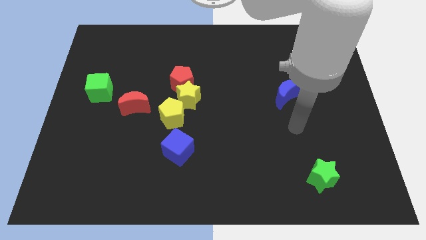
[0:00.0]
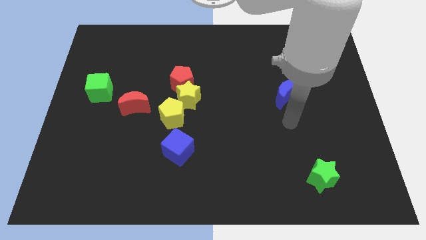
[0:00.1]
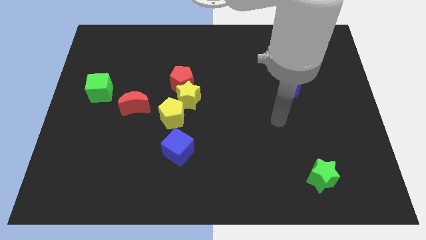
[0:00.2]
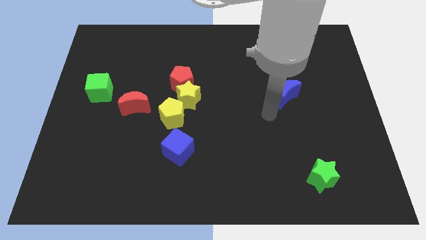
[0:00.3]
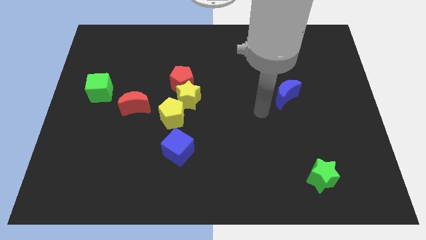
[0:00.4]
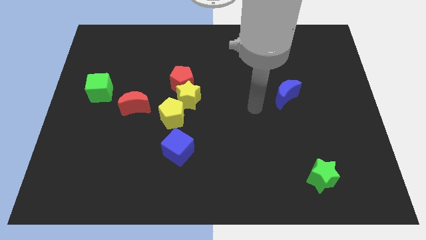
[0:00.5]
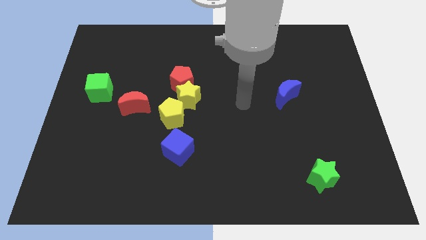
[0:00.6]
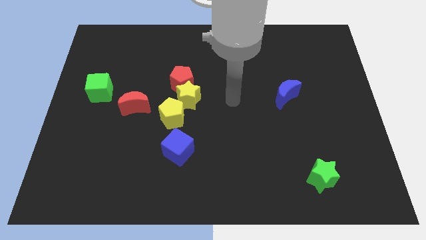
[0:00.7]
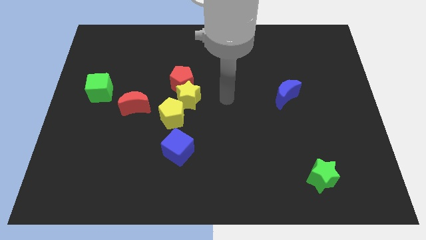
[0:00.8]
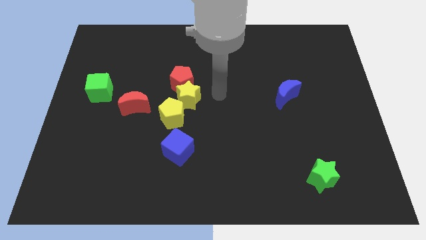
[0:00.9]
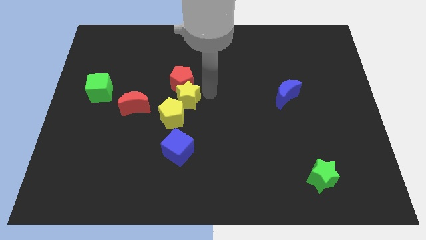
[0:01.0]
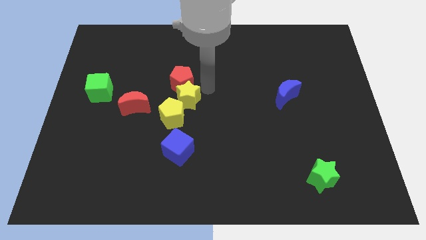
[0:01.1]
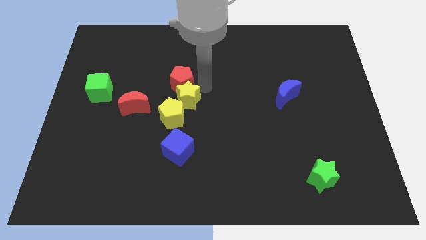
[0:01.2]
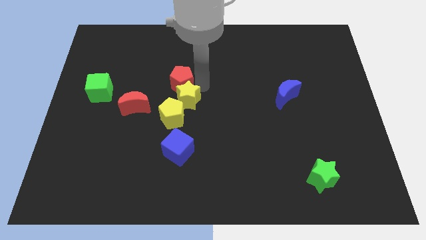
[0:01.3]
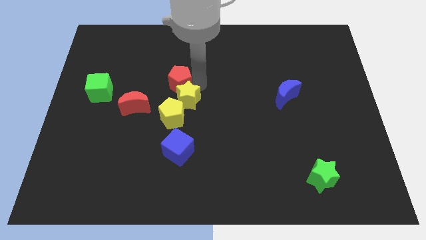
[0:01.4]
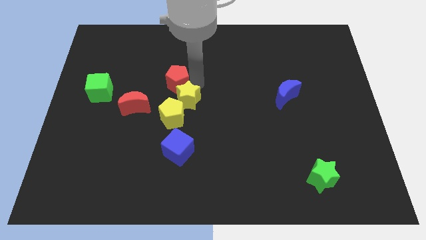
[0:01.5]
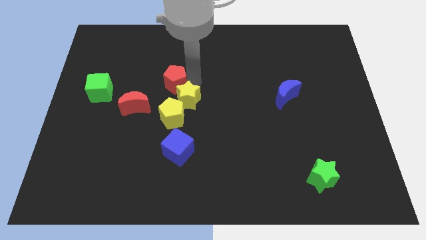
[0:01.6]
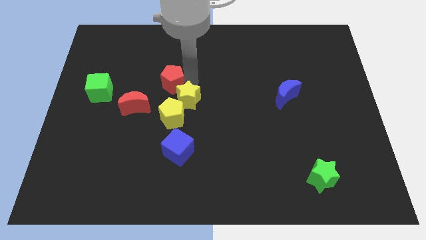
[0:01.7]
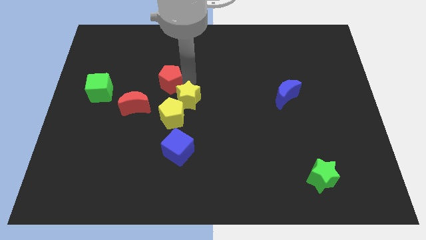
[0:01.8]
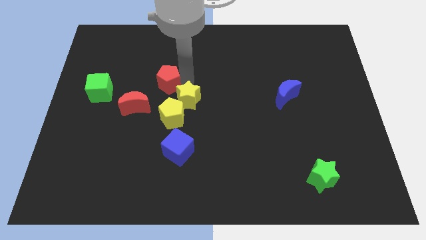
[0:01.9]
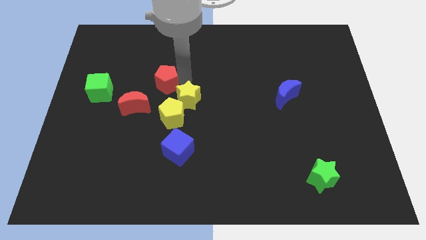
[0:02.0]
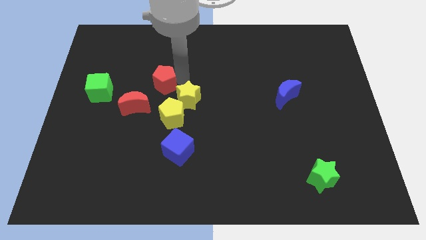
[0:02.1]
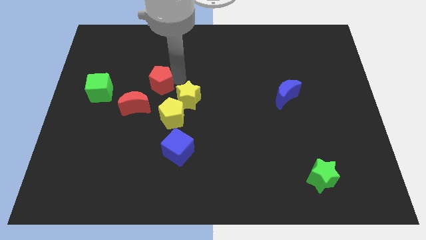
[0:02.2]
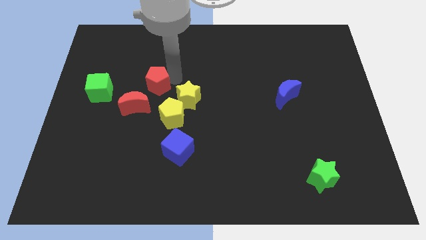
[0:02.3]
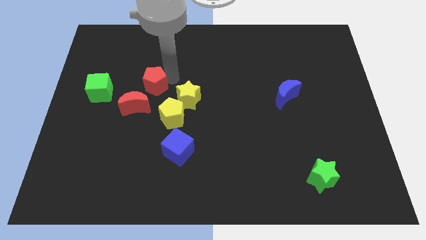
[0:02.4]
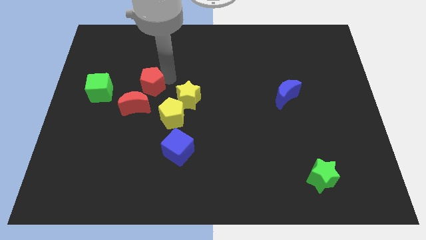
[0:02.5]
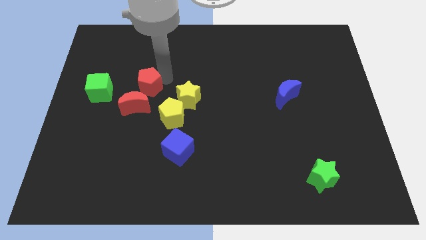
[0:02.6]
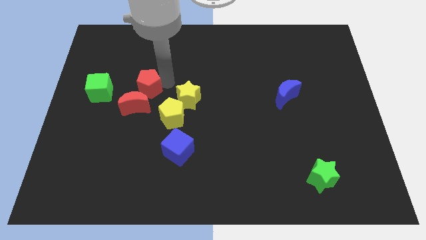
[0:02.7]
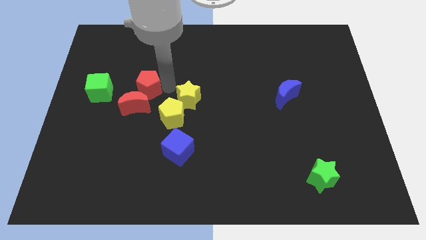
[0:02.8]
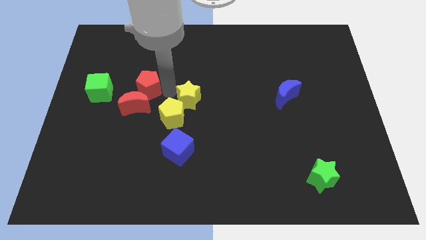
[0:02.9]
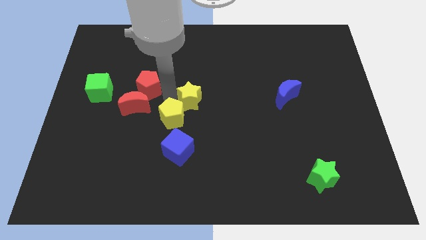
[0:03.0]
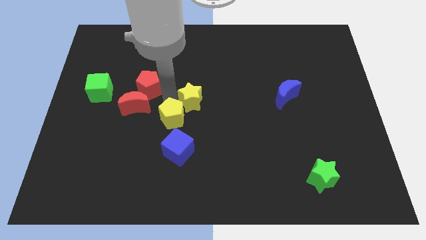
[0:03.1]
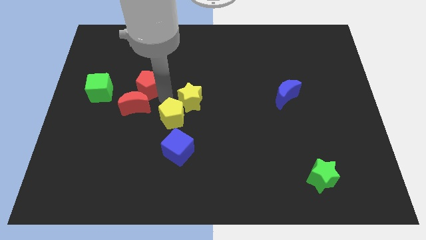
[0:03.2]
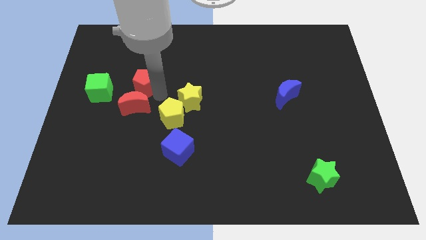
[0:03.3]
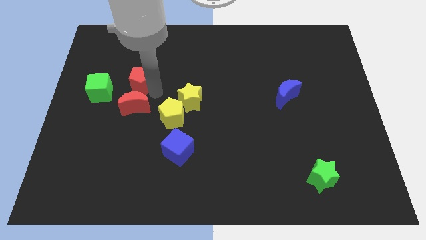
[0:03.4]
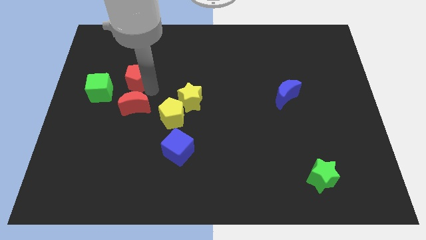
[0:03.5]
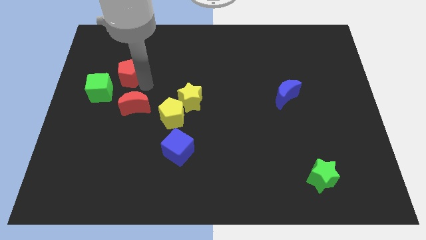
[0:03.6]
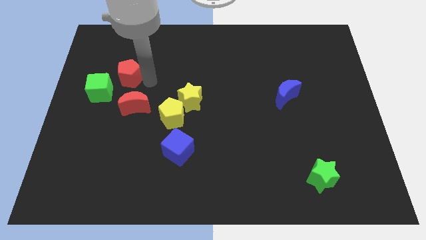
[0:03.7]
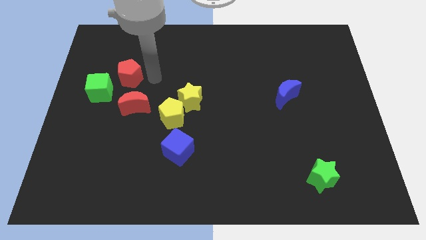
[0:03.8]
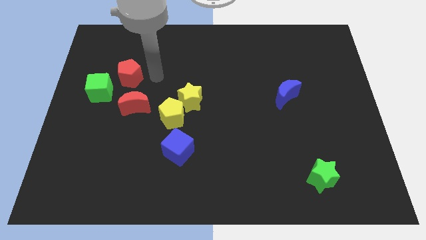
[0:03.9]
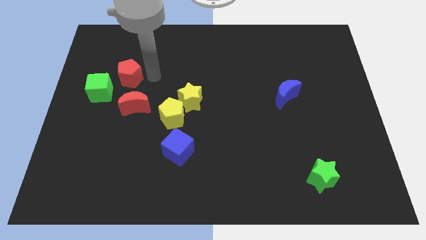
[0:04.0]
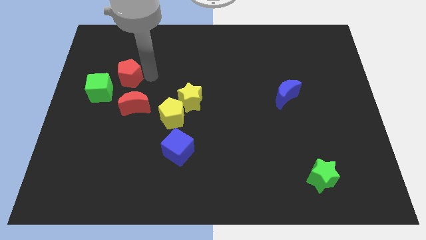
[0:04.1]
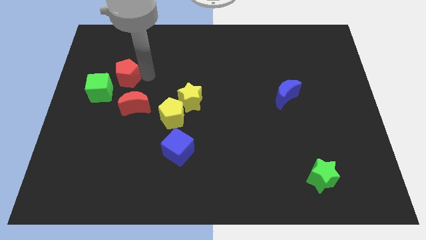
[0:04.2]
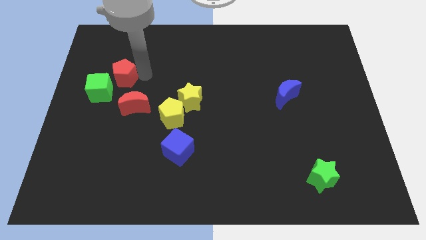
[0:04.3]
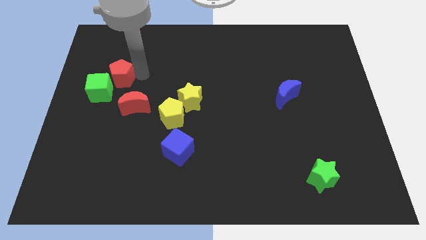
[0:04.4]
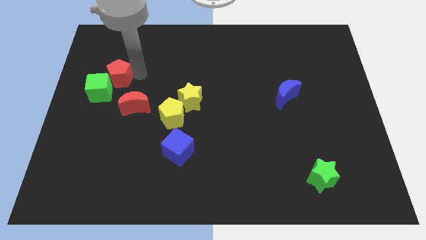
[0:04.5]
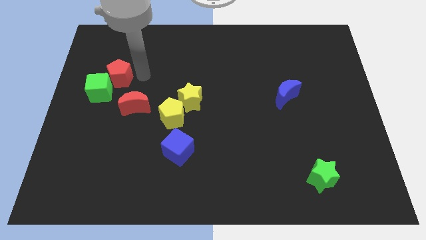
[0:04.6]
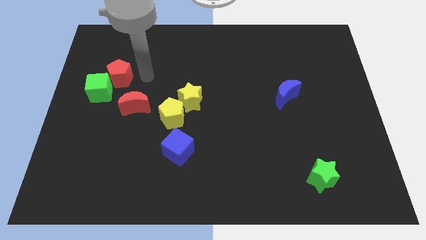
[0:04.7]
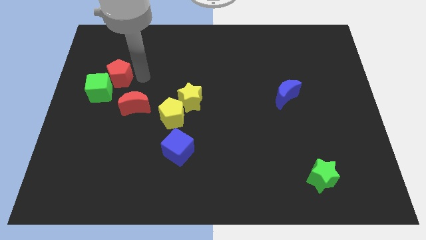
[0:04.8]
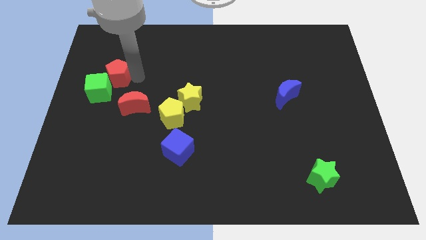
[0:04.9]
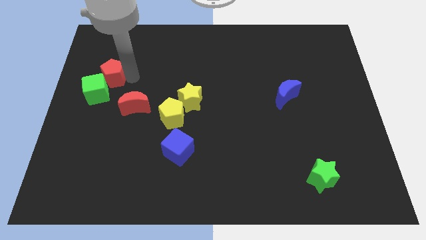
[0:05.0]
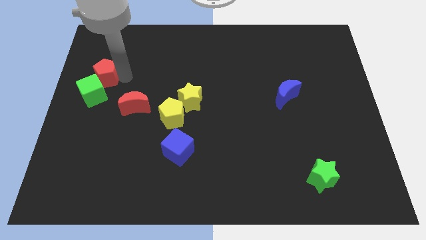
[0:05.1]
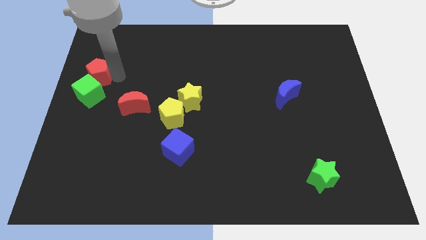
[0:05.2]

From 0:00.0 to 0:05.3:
push the red pentagon to the left side of the board

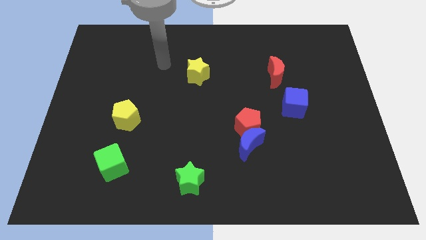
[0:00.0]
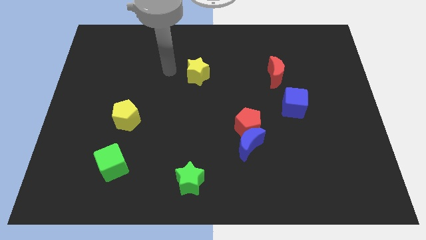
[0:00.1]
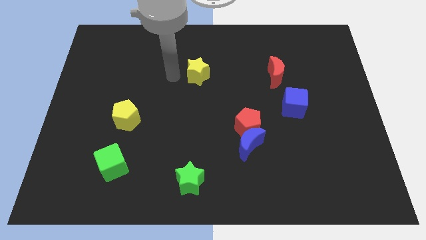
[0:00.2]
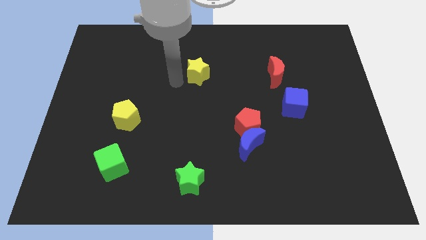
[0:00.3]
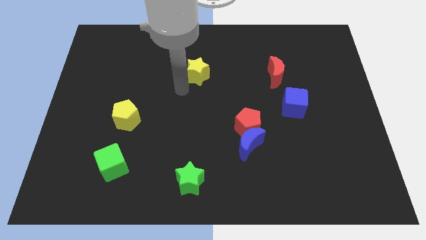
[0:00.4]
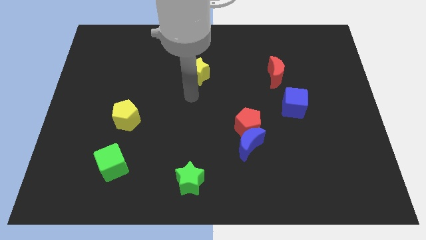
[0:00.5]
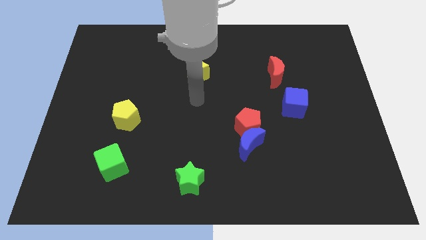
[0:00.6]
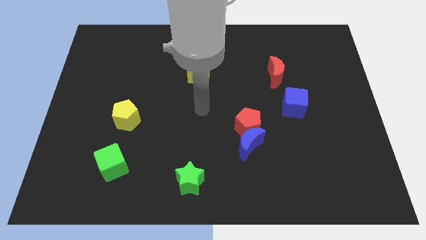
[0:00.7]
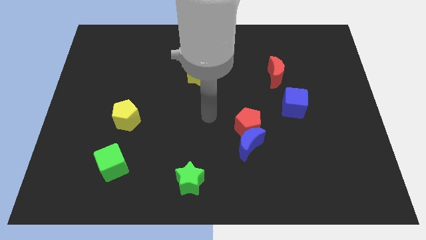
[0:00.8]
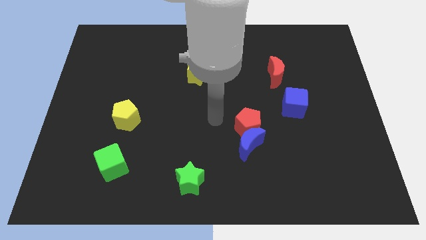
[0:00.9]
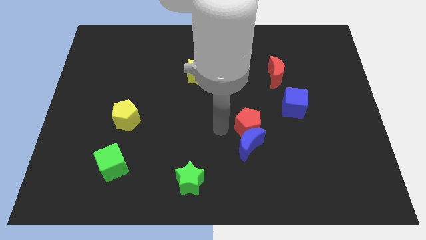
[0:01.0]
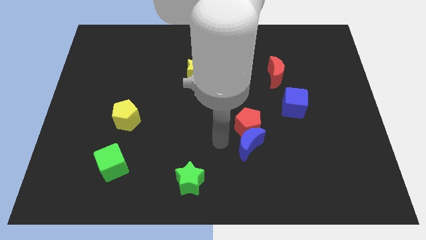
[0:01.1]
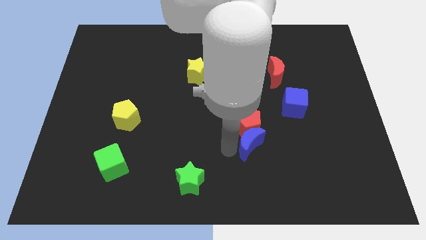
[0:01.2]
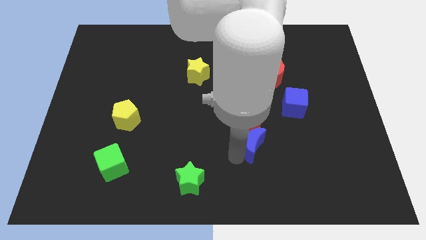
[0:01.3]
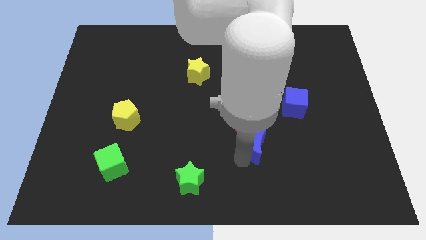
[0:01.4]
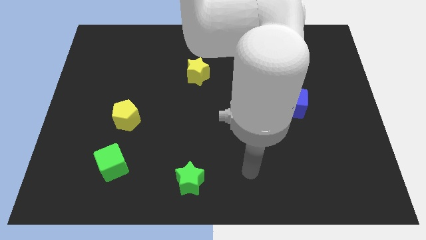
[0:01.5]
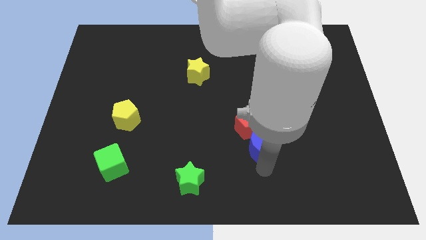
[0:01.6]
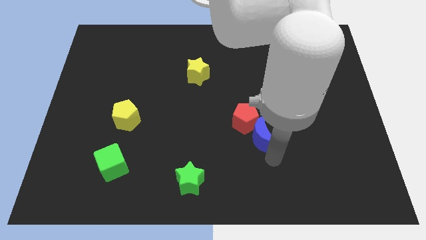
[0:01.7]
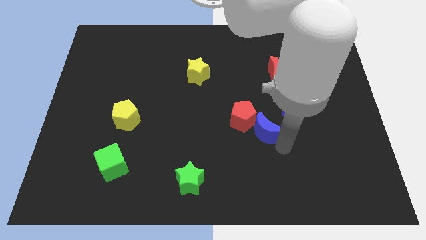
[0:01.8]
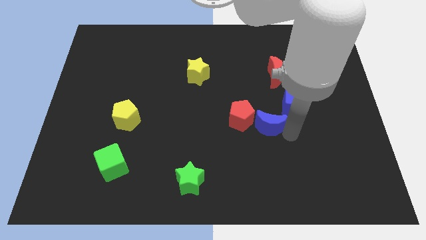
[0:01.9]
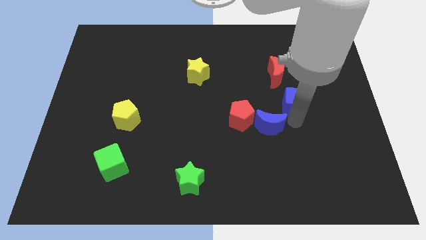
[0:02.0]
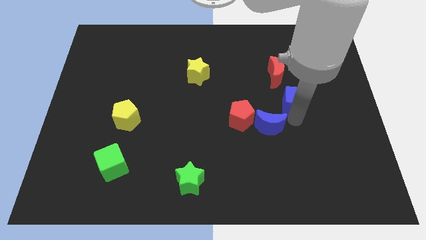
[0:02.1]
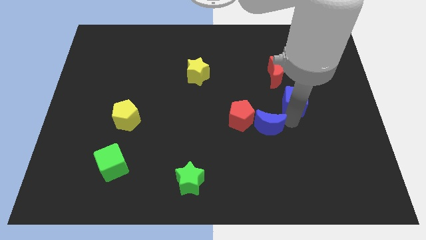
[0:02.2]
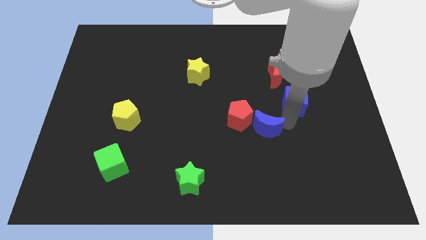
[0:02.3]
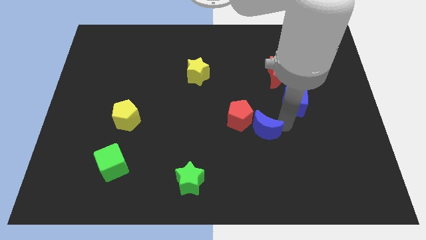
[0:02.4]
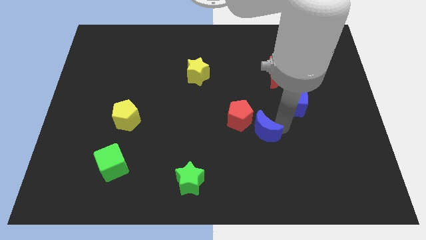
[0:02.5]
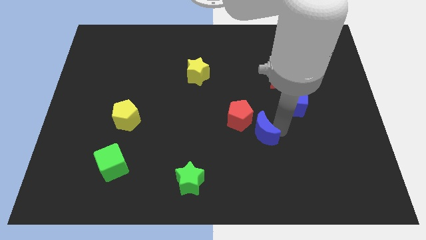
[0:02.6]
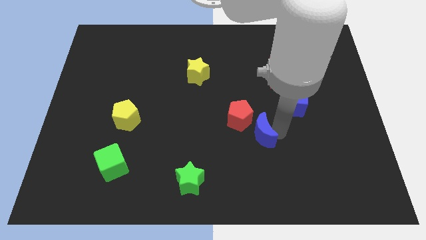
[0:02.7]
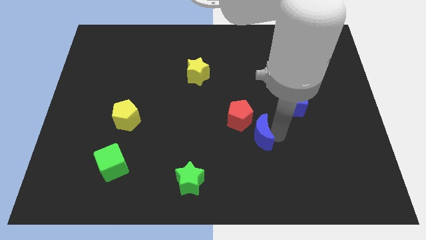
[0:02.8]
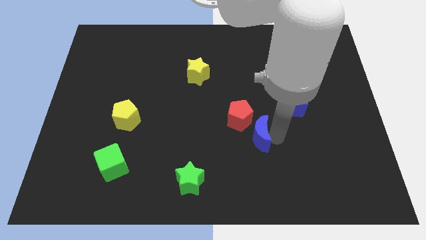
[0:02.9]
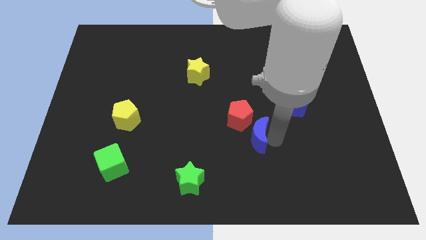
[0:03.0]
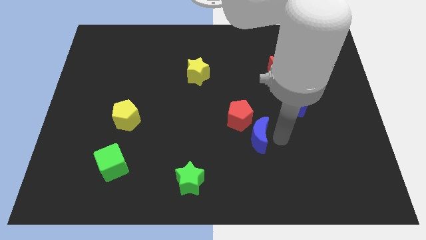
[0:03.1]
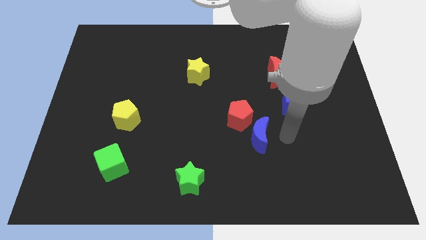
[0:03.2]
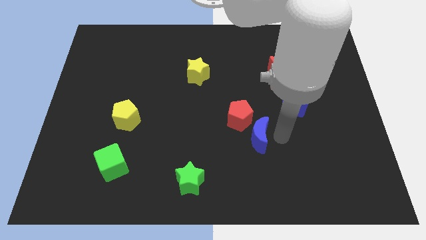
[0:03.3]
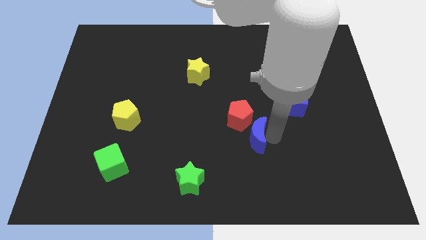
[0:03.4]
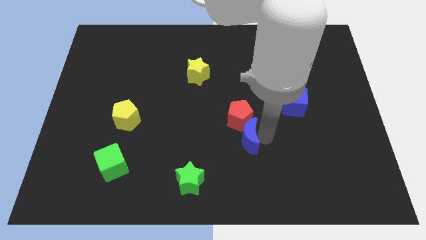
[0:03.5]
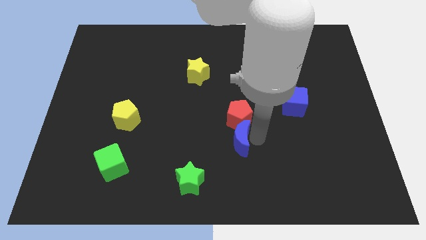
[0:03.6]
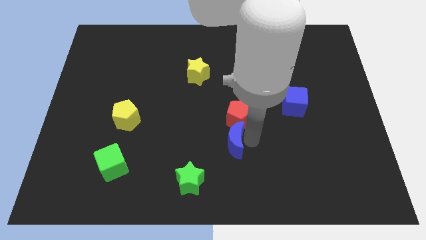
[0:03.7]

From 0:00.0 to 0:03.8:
slide the blue moon to the center
